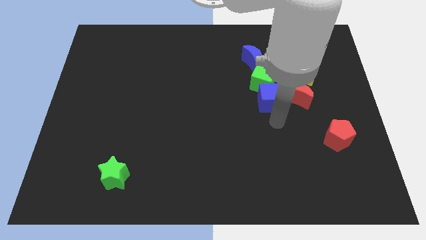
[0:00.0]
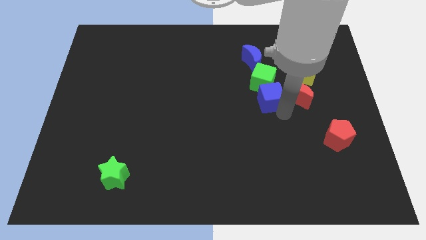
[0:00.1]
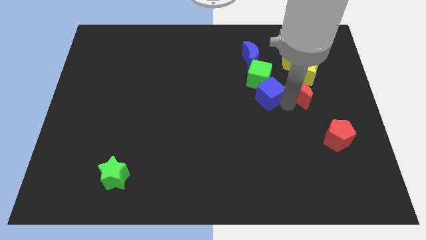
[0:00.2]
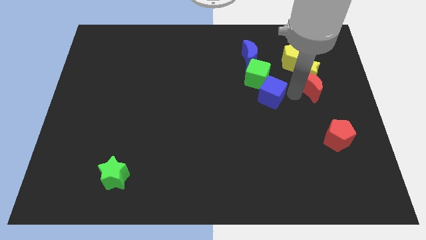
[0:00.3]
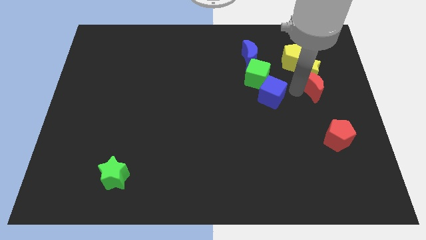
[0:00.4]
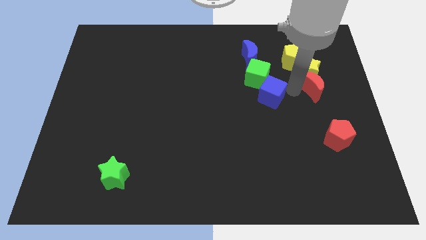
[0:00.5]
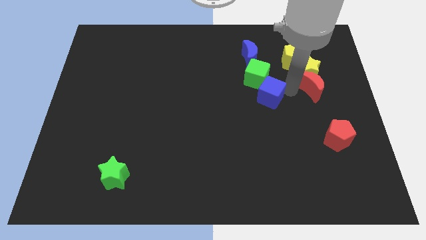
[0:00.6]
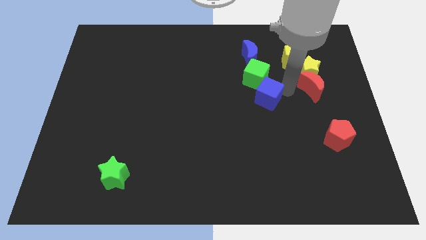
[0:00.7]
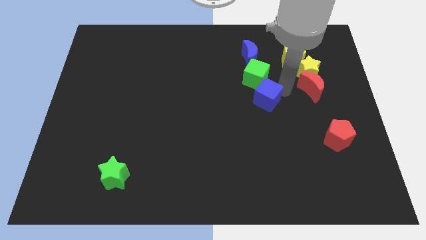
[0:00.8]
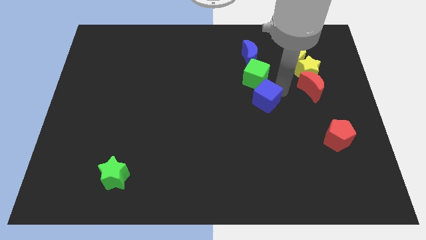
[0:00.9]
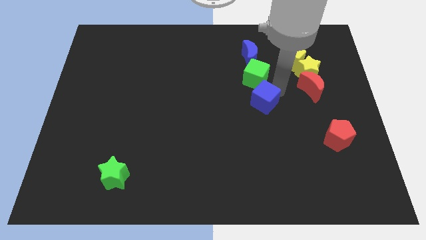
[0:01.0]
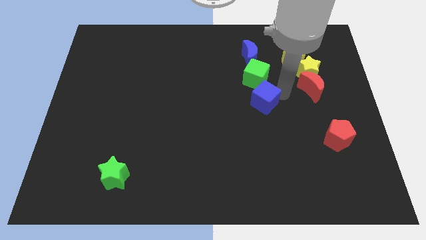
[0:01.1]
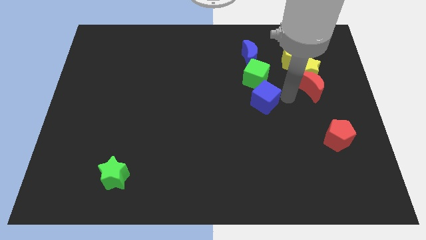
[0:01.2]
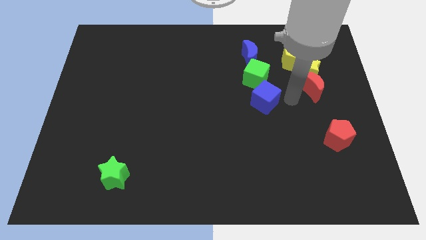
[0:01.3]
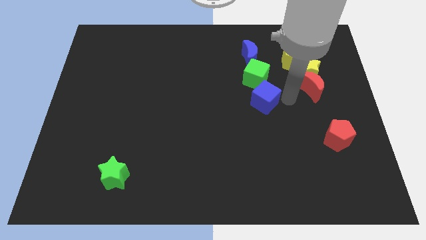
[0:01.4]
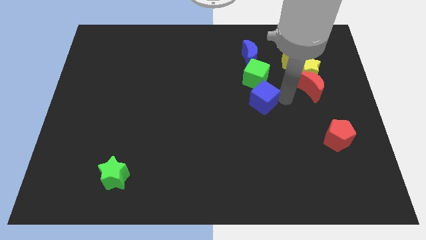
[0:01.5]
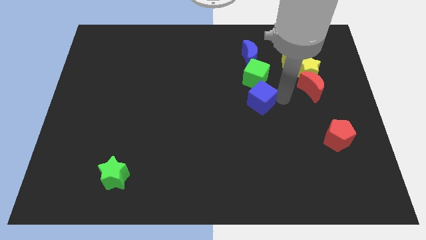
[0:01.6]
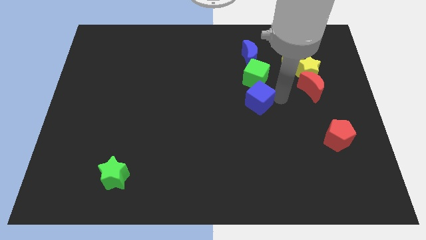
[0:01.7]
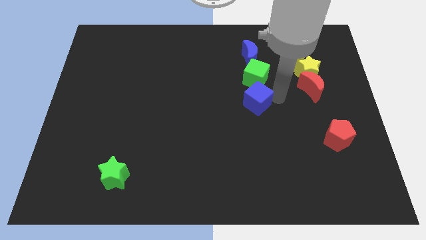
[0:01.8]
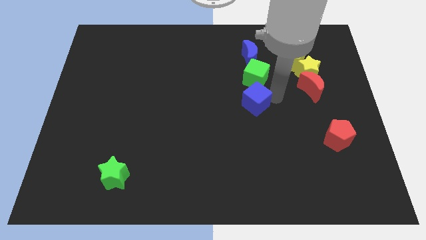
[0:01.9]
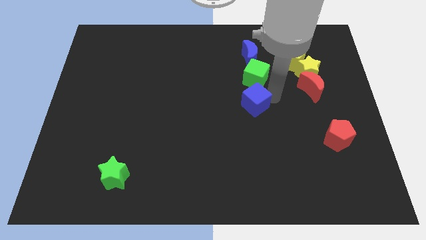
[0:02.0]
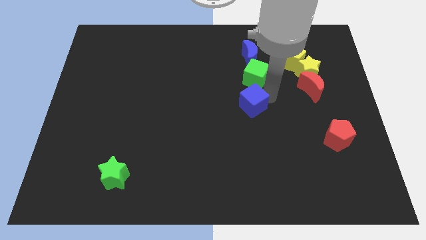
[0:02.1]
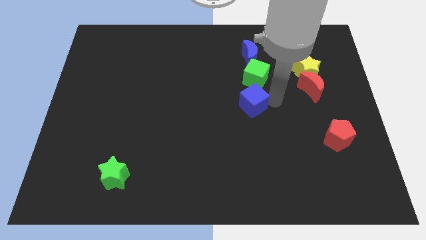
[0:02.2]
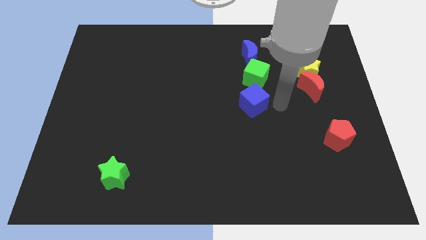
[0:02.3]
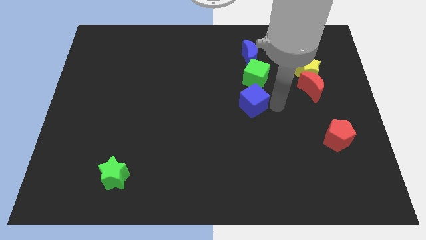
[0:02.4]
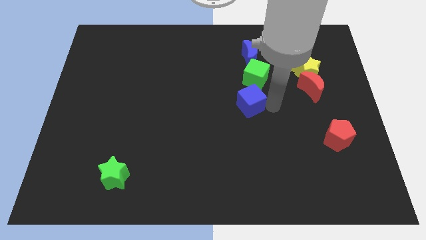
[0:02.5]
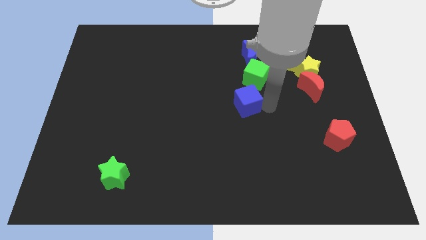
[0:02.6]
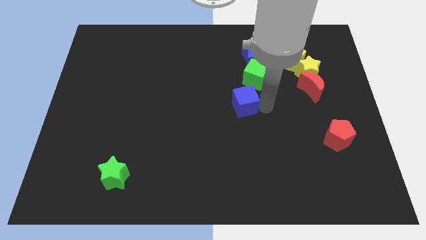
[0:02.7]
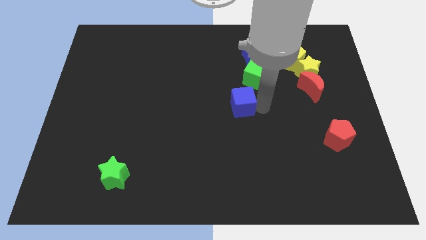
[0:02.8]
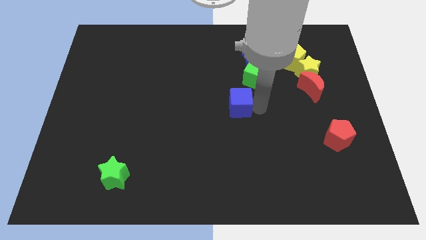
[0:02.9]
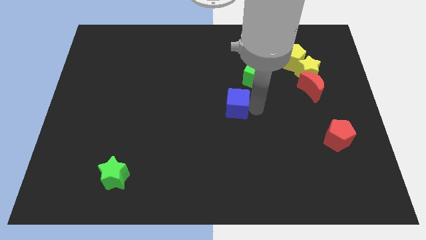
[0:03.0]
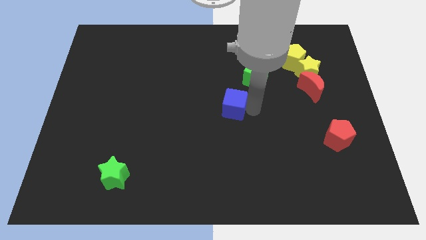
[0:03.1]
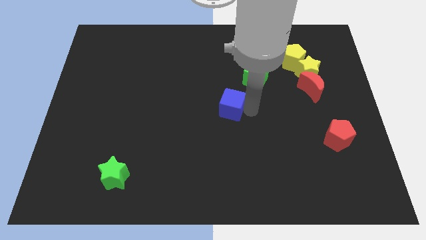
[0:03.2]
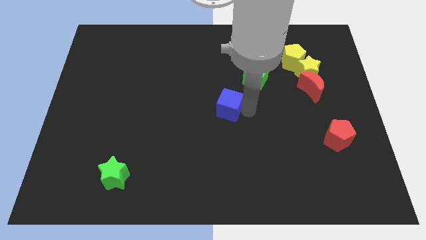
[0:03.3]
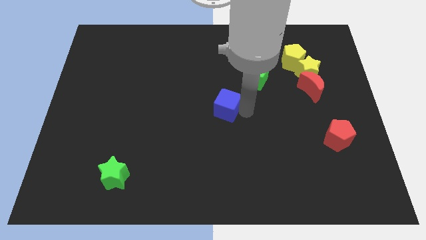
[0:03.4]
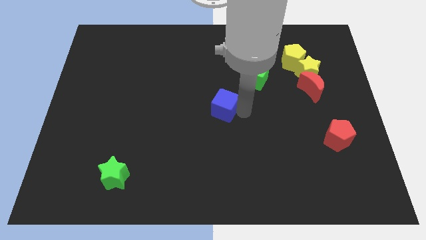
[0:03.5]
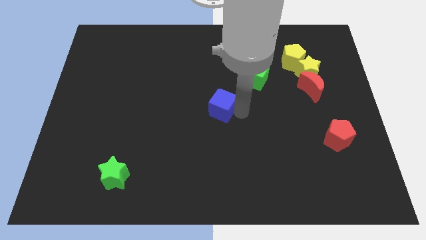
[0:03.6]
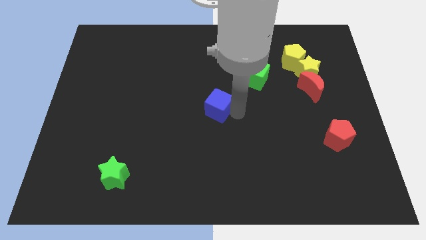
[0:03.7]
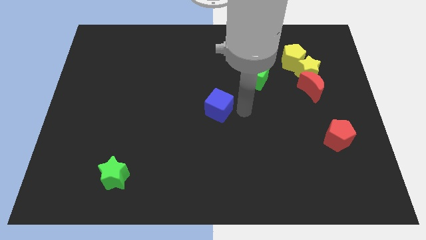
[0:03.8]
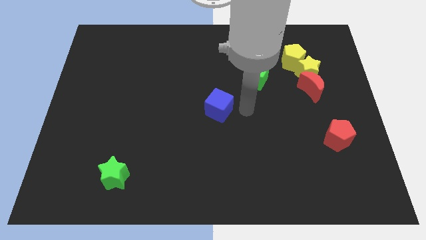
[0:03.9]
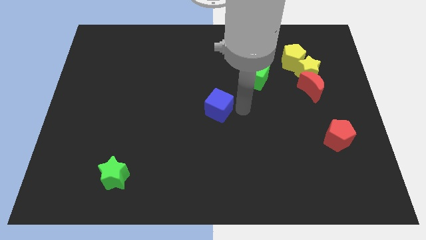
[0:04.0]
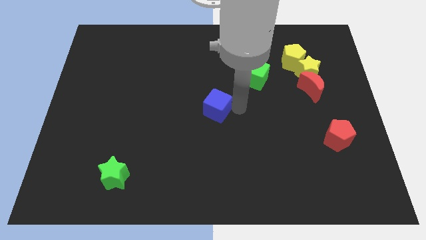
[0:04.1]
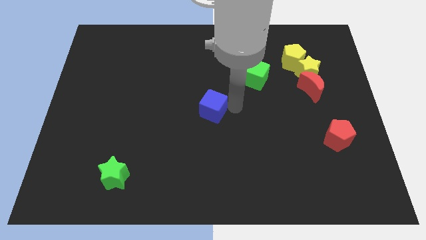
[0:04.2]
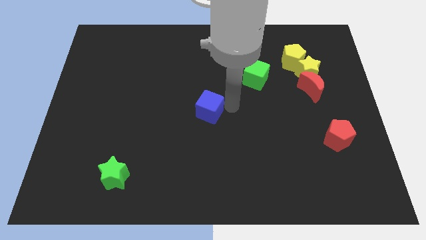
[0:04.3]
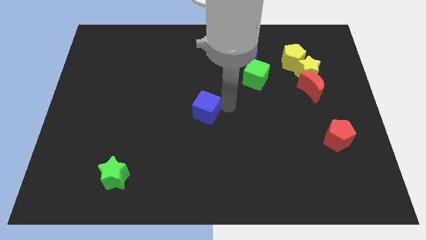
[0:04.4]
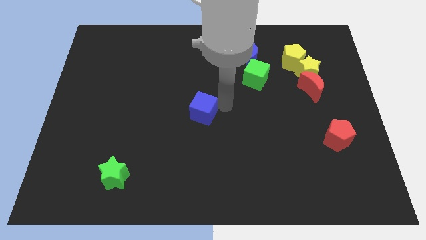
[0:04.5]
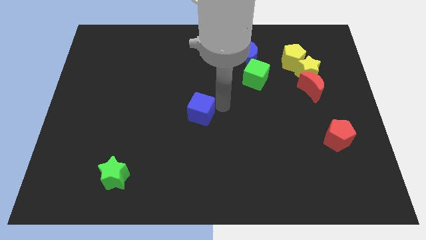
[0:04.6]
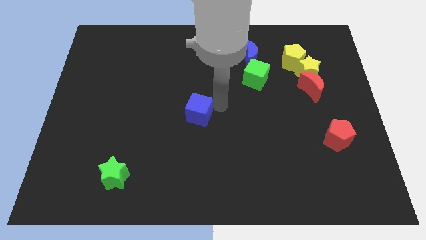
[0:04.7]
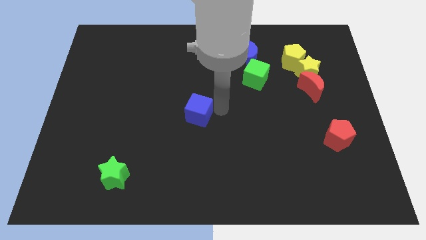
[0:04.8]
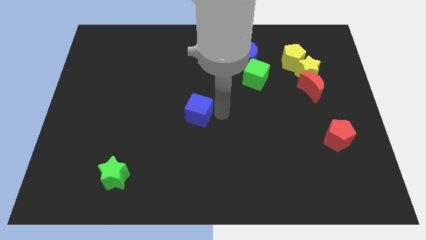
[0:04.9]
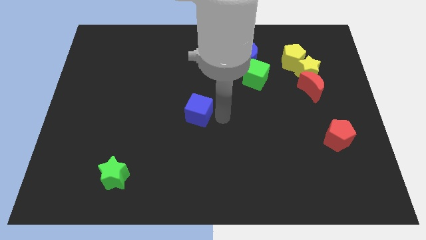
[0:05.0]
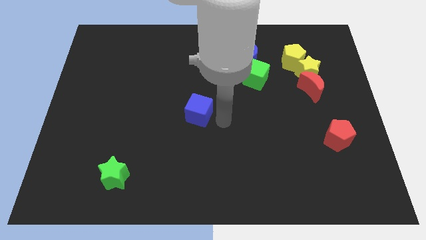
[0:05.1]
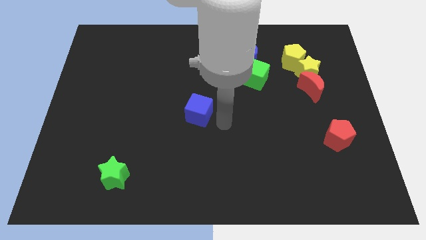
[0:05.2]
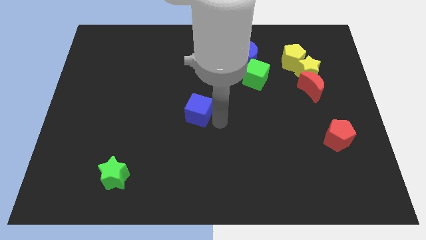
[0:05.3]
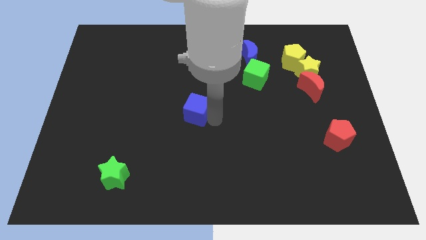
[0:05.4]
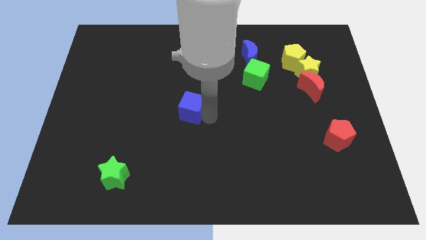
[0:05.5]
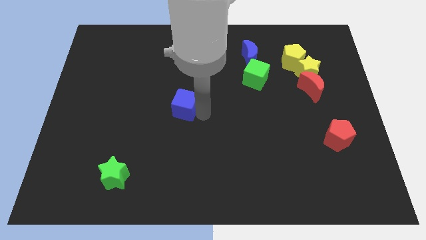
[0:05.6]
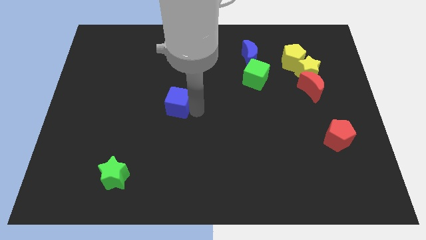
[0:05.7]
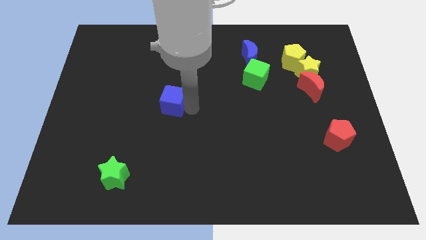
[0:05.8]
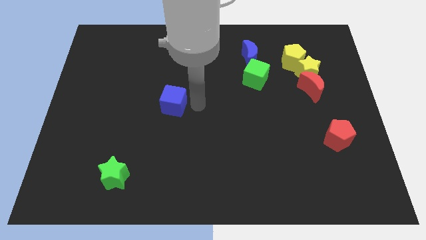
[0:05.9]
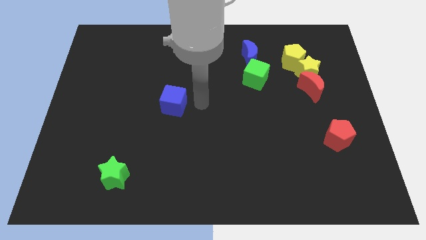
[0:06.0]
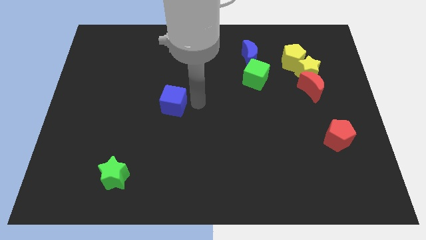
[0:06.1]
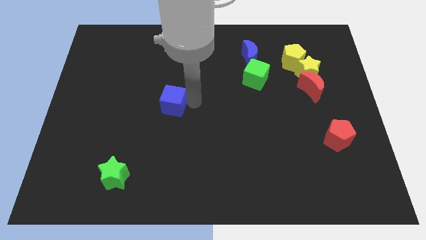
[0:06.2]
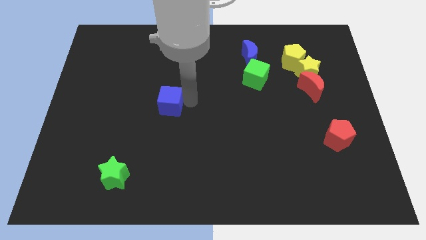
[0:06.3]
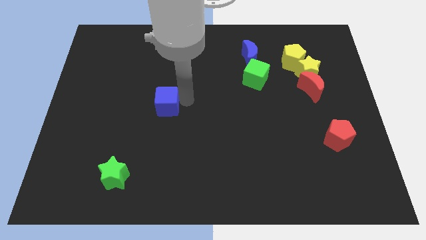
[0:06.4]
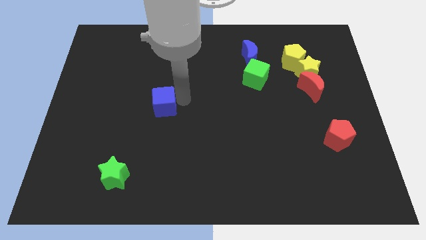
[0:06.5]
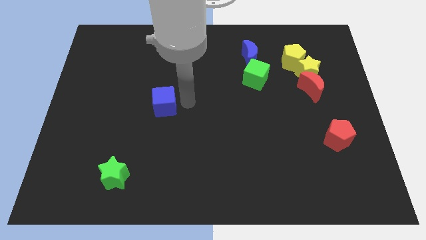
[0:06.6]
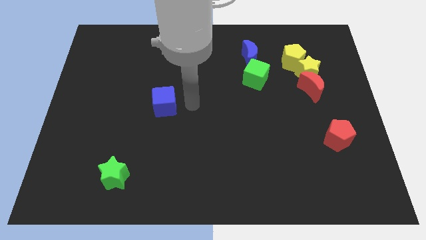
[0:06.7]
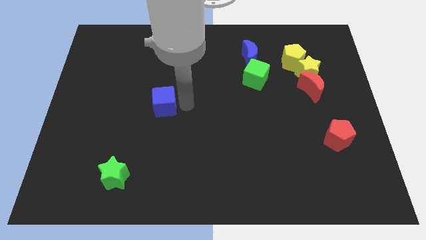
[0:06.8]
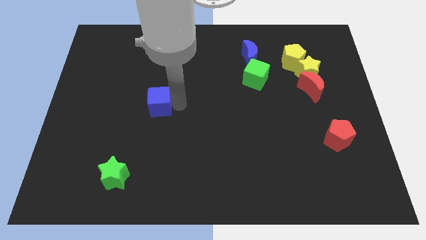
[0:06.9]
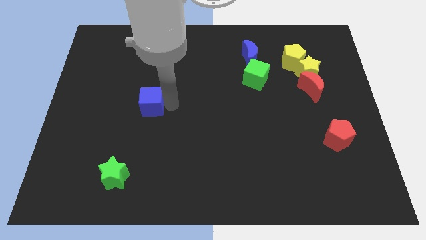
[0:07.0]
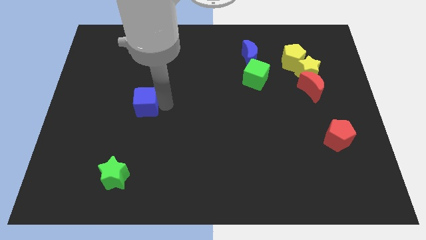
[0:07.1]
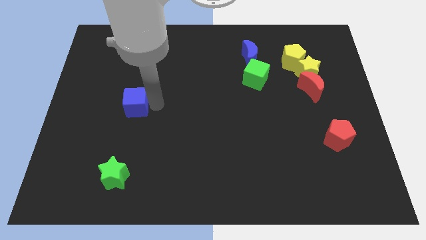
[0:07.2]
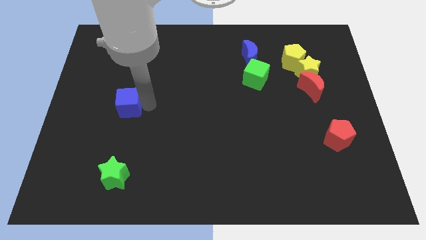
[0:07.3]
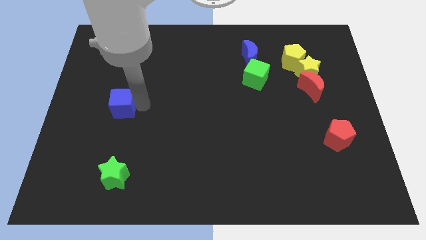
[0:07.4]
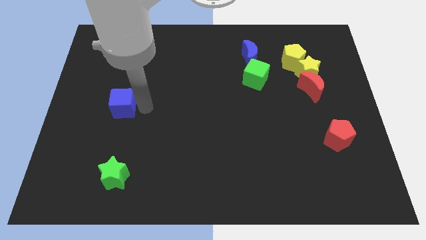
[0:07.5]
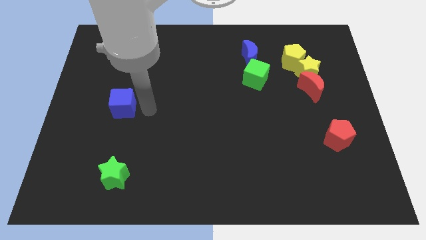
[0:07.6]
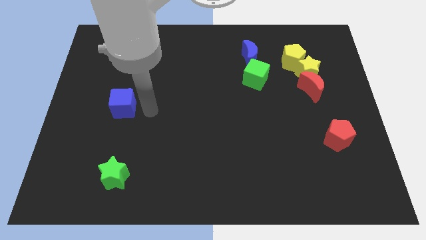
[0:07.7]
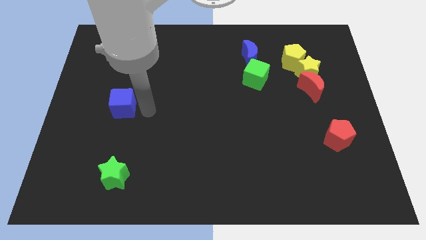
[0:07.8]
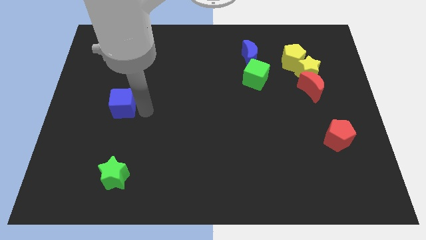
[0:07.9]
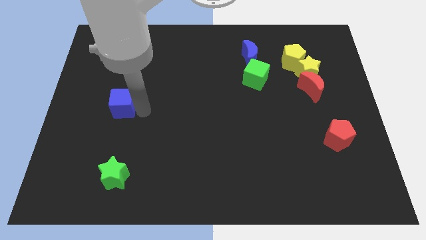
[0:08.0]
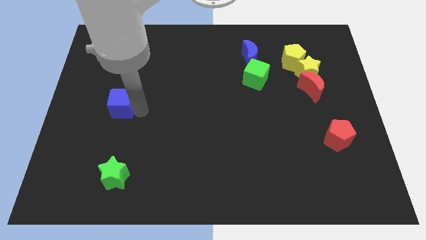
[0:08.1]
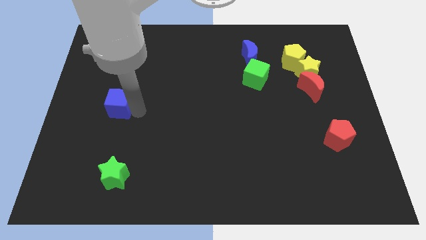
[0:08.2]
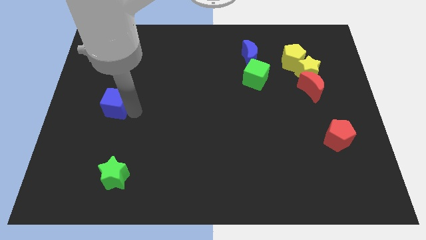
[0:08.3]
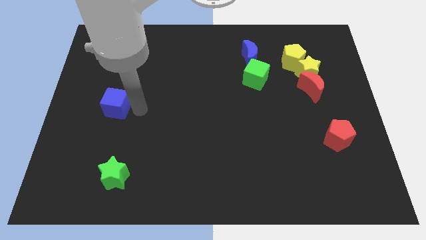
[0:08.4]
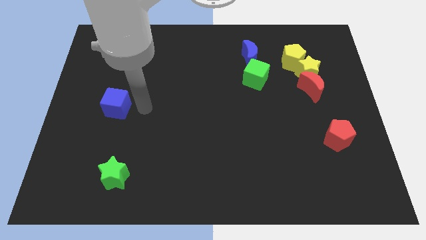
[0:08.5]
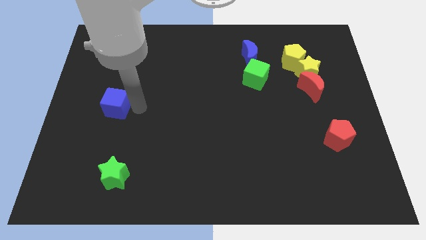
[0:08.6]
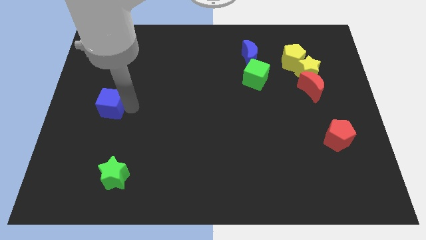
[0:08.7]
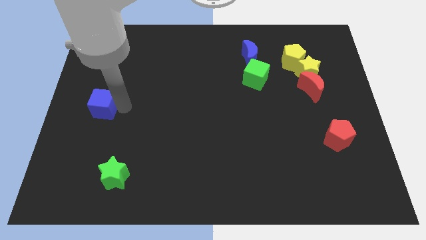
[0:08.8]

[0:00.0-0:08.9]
push the blue cube to the left side of the board
